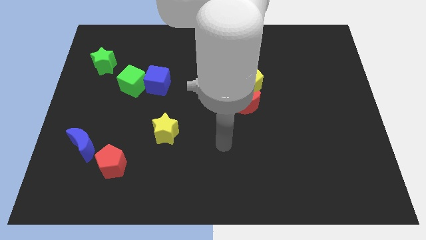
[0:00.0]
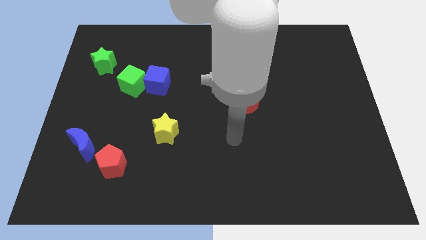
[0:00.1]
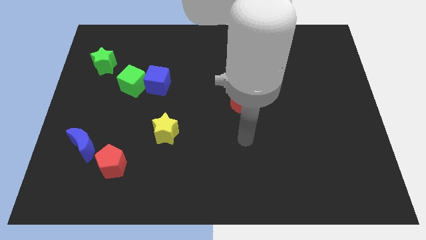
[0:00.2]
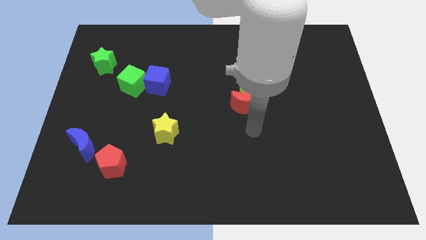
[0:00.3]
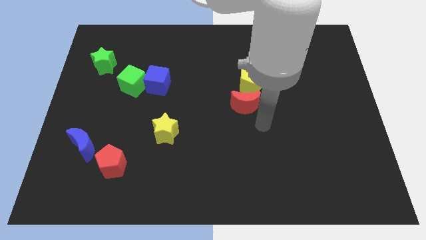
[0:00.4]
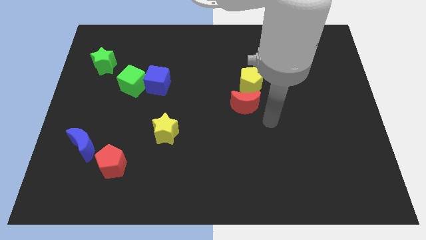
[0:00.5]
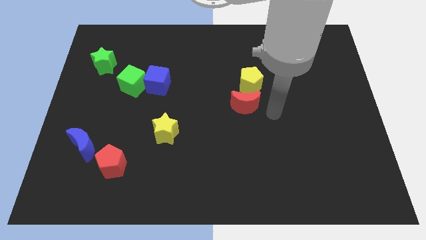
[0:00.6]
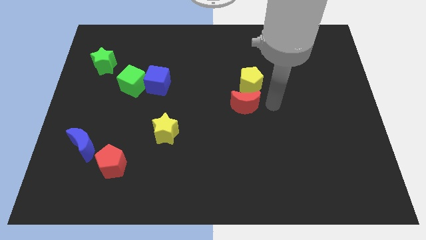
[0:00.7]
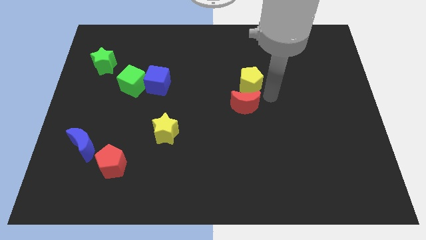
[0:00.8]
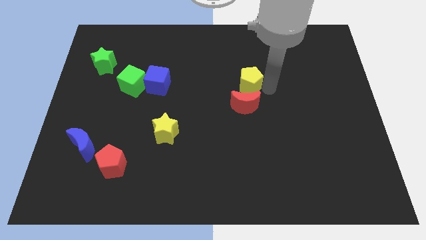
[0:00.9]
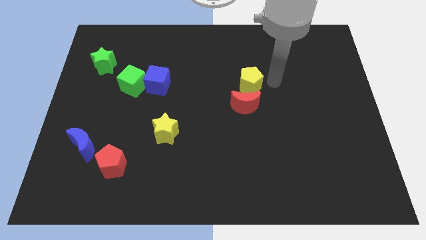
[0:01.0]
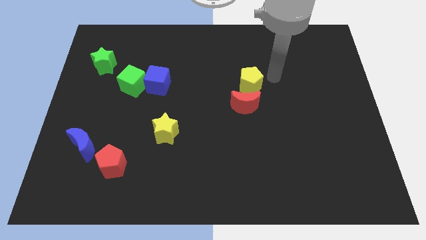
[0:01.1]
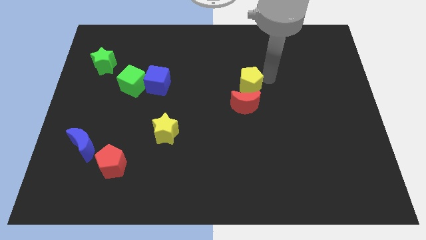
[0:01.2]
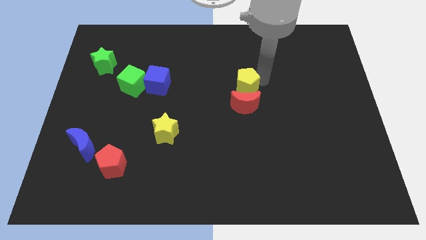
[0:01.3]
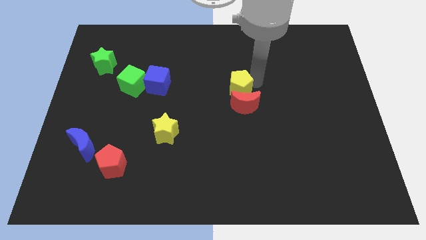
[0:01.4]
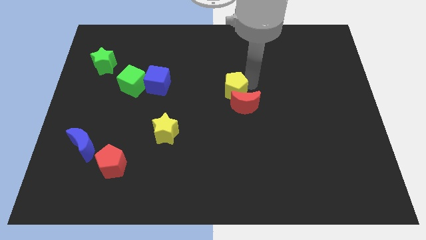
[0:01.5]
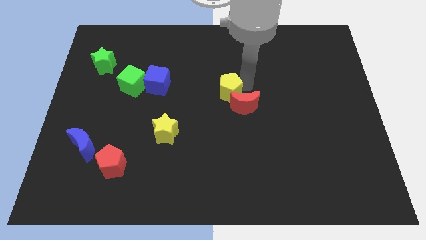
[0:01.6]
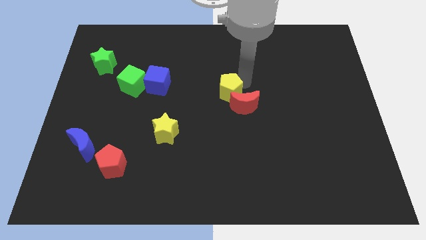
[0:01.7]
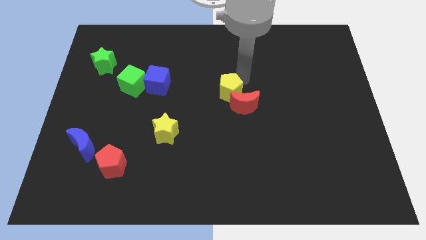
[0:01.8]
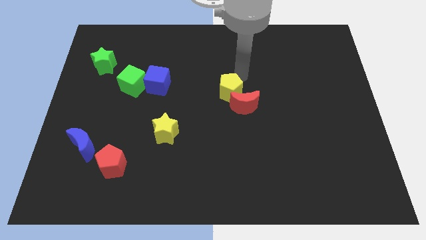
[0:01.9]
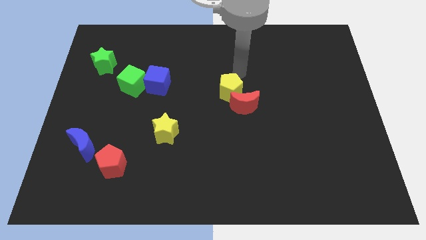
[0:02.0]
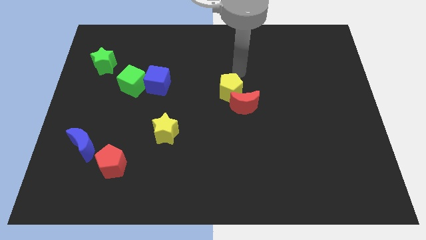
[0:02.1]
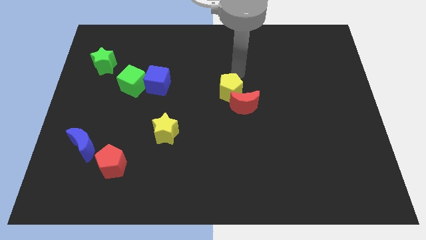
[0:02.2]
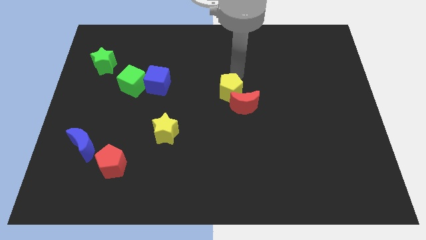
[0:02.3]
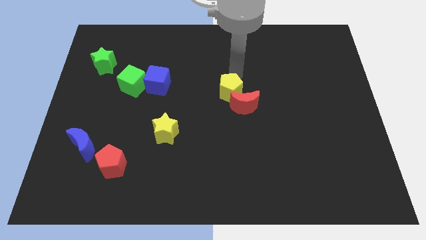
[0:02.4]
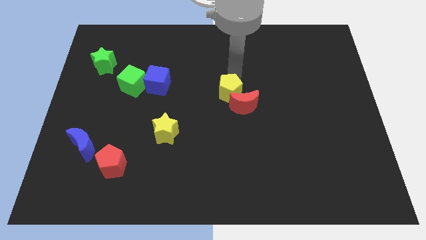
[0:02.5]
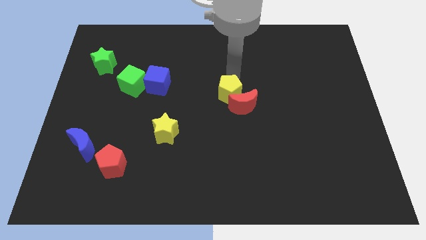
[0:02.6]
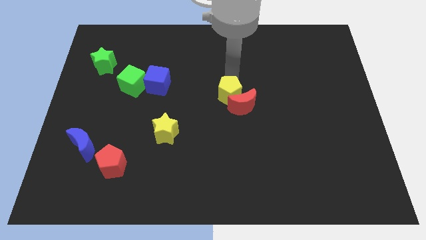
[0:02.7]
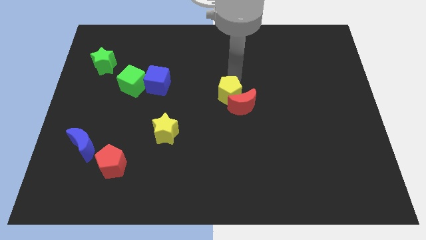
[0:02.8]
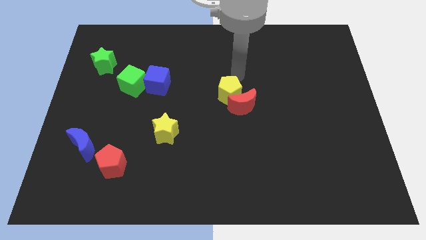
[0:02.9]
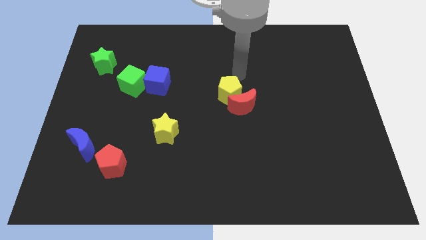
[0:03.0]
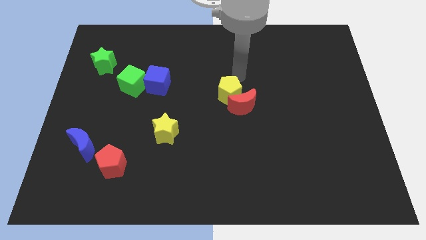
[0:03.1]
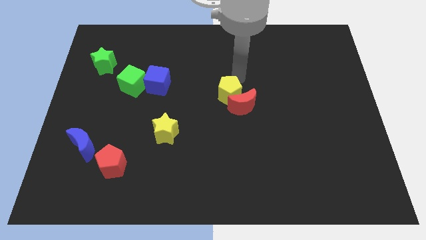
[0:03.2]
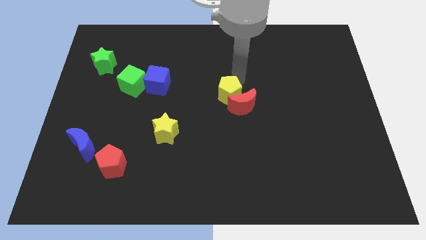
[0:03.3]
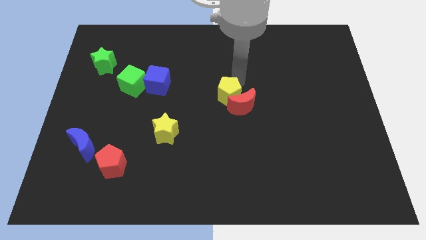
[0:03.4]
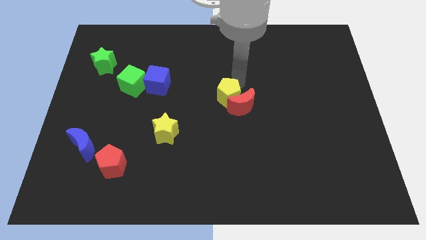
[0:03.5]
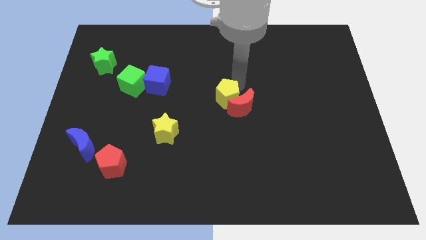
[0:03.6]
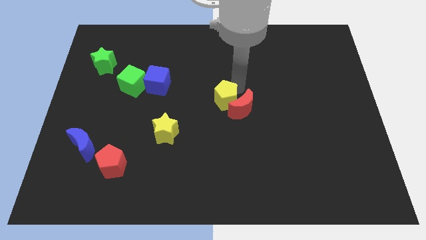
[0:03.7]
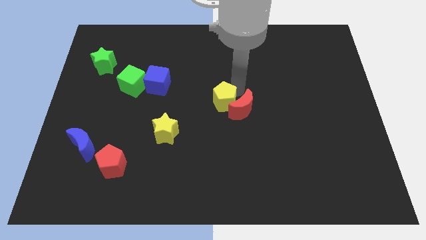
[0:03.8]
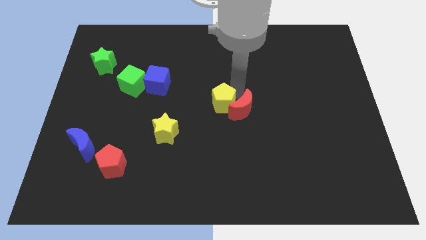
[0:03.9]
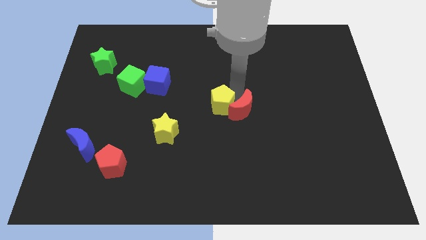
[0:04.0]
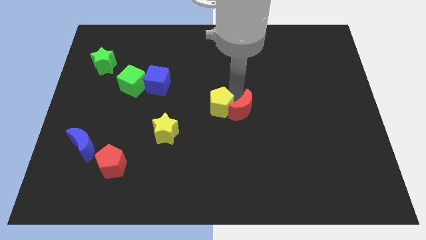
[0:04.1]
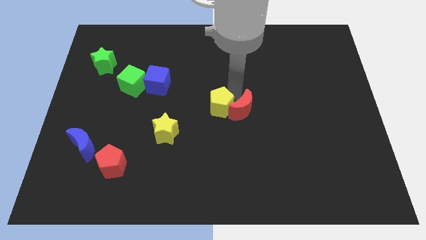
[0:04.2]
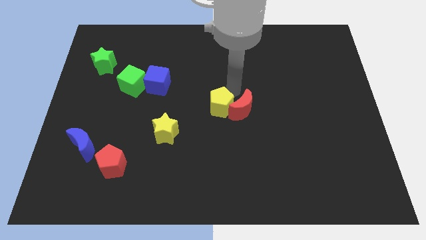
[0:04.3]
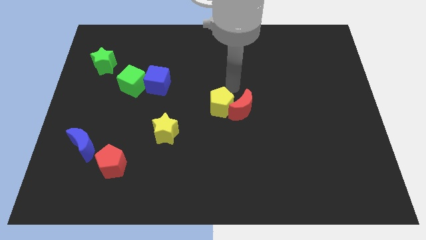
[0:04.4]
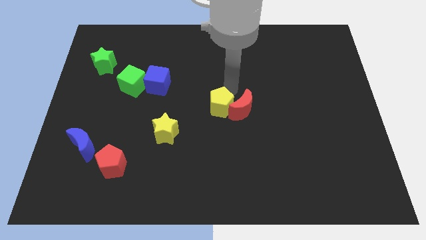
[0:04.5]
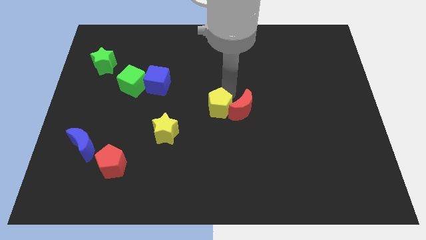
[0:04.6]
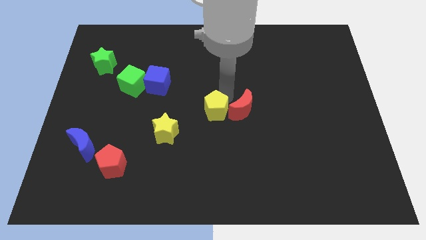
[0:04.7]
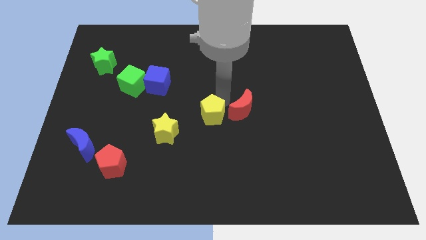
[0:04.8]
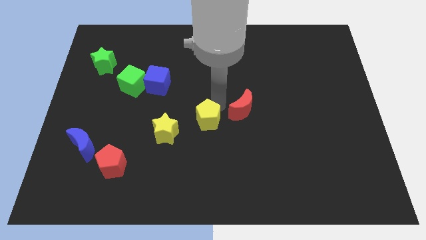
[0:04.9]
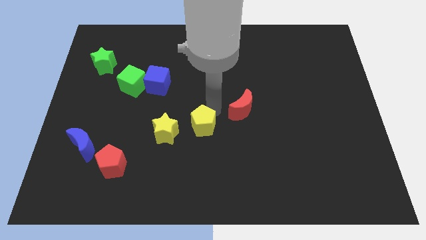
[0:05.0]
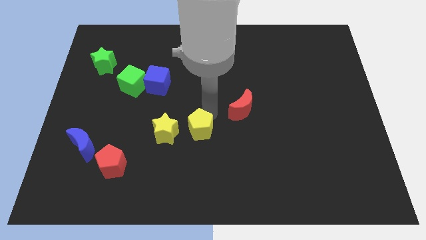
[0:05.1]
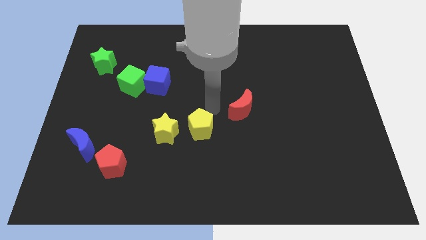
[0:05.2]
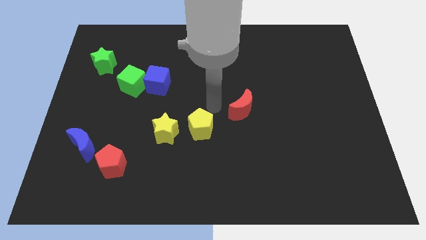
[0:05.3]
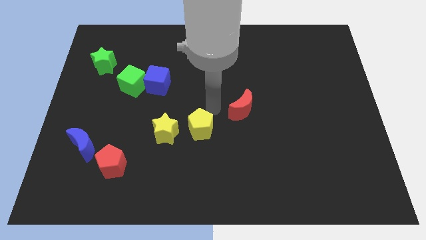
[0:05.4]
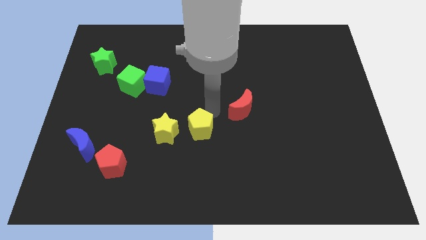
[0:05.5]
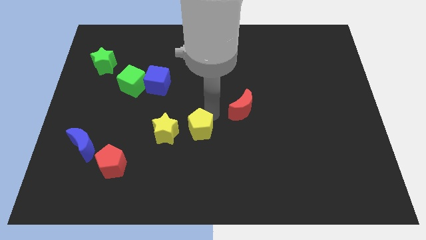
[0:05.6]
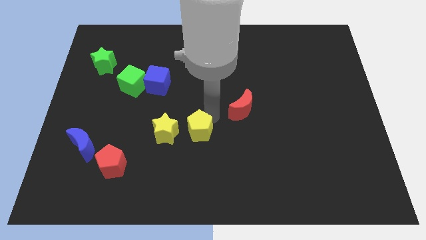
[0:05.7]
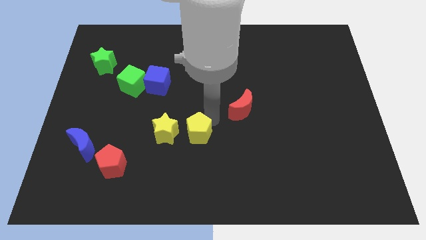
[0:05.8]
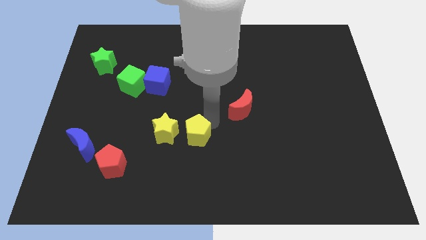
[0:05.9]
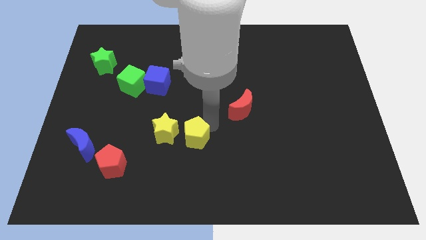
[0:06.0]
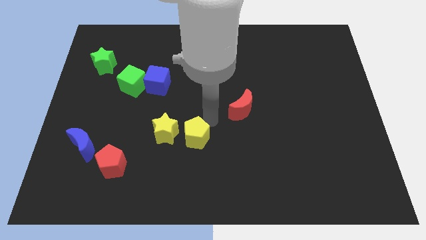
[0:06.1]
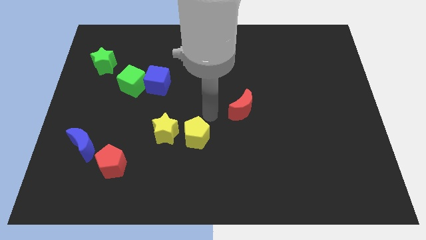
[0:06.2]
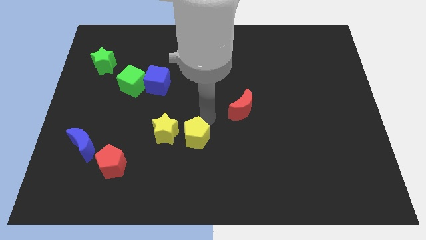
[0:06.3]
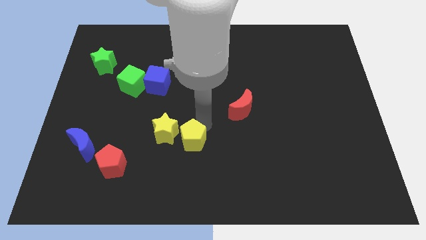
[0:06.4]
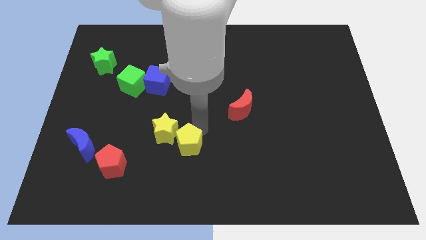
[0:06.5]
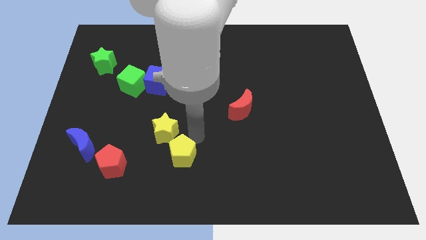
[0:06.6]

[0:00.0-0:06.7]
put the yellow pentagon right of the red pentagon

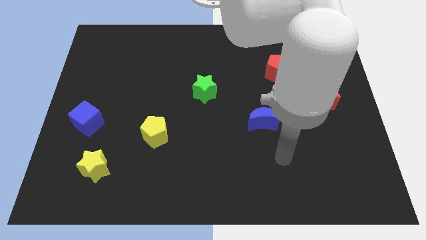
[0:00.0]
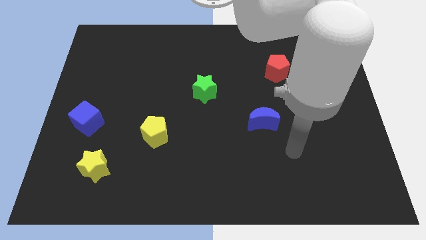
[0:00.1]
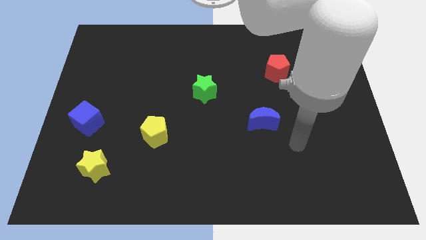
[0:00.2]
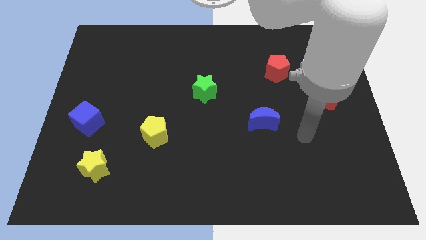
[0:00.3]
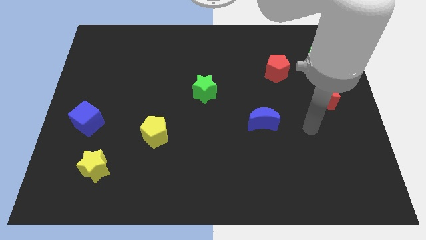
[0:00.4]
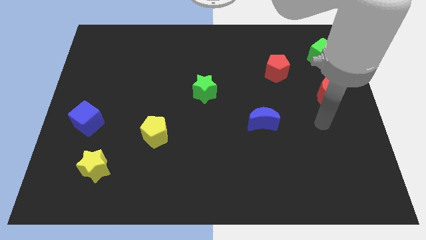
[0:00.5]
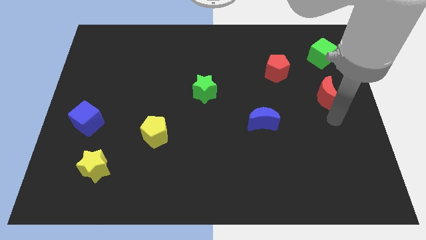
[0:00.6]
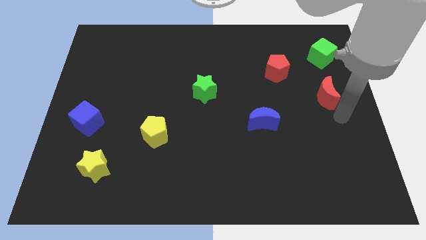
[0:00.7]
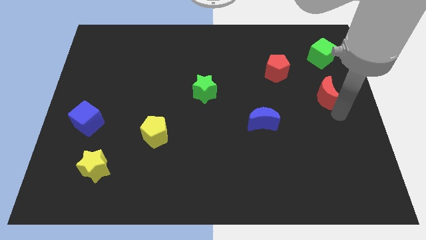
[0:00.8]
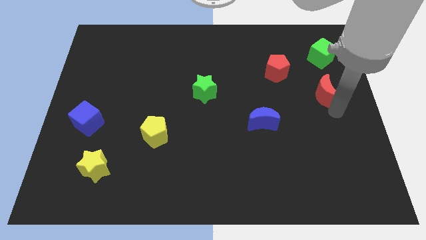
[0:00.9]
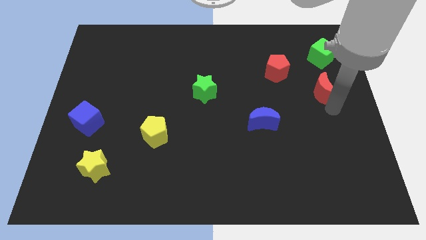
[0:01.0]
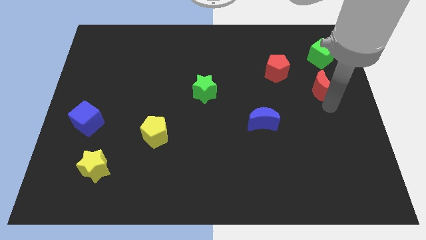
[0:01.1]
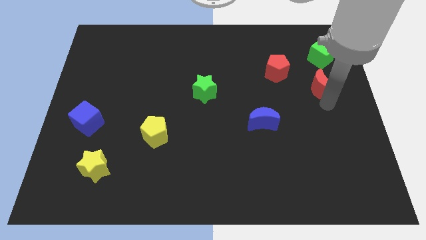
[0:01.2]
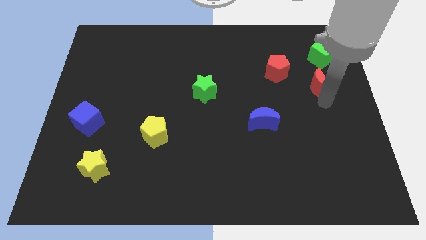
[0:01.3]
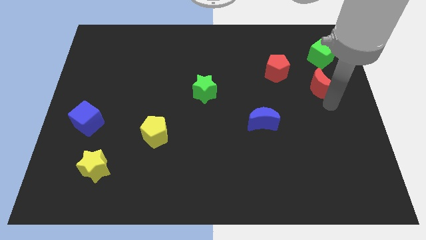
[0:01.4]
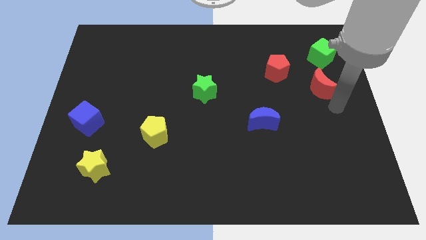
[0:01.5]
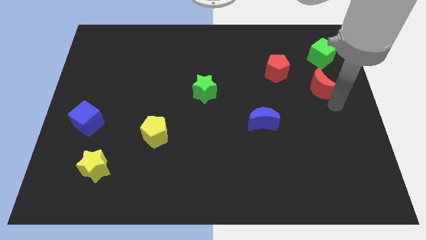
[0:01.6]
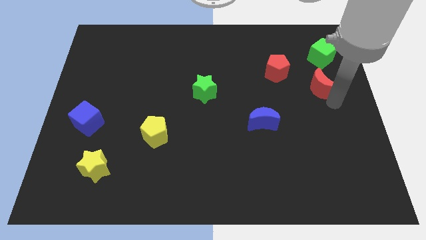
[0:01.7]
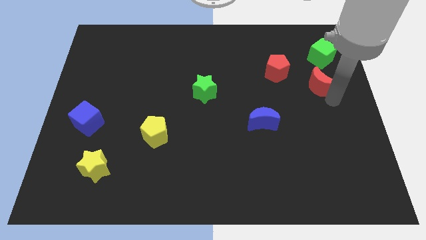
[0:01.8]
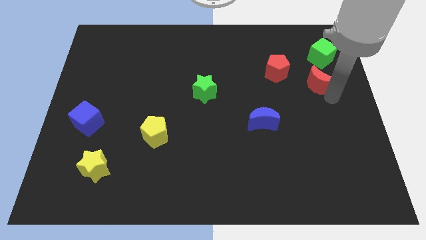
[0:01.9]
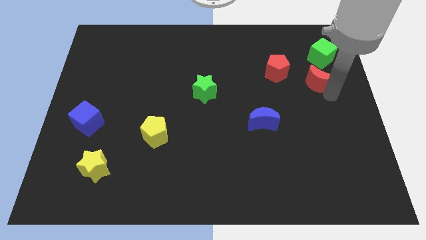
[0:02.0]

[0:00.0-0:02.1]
slide the red moon to the bottom left side of the green cube
